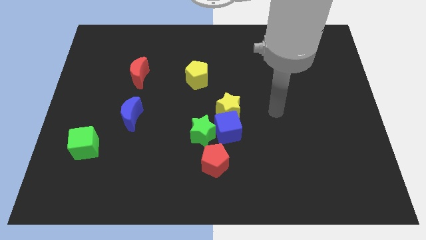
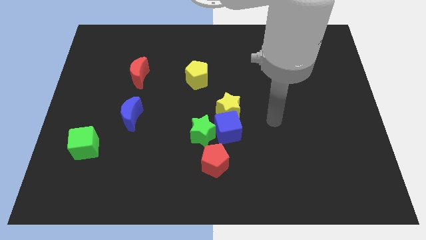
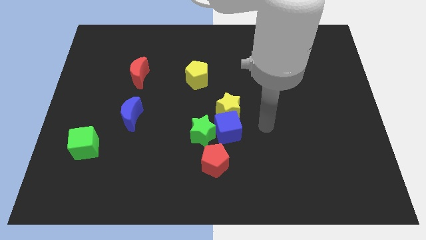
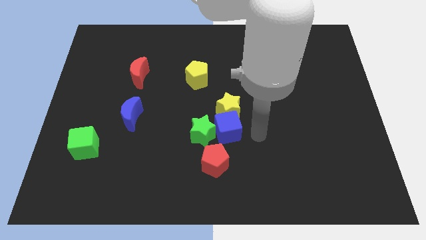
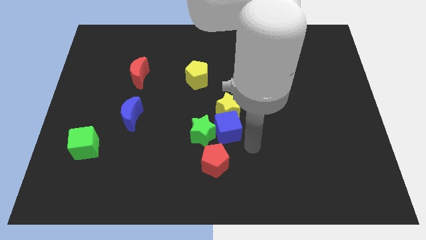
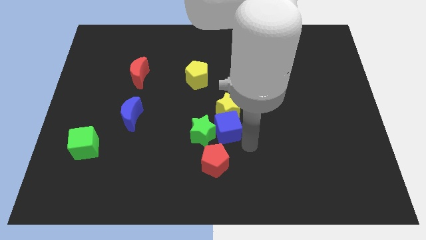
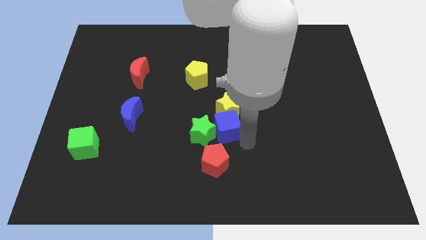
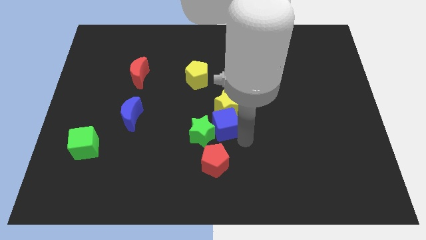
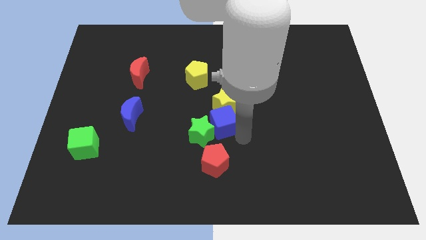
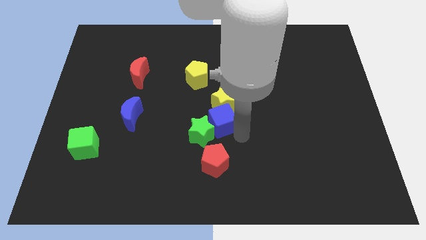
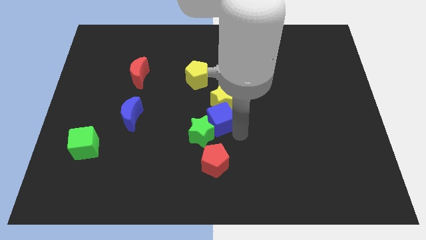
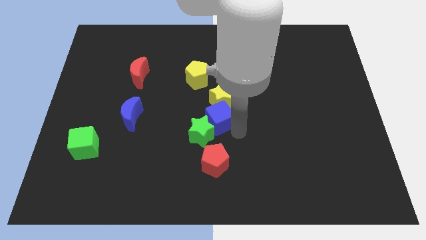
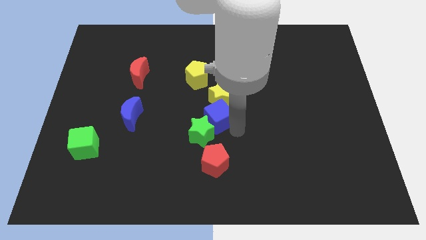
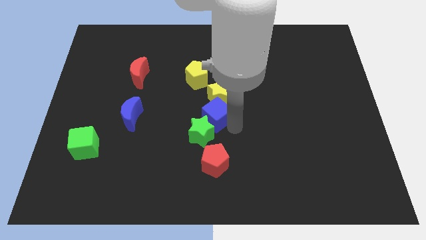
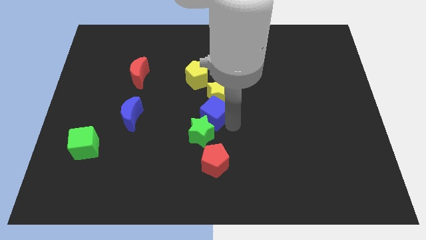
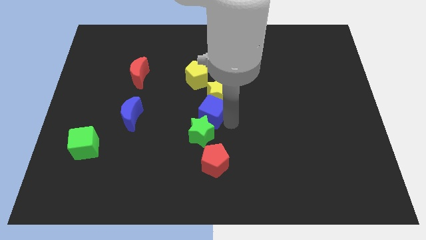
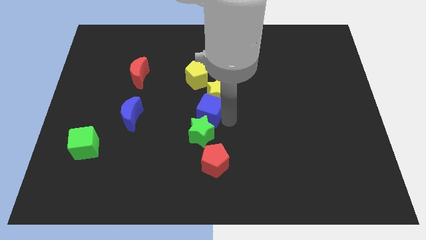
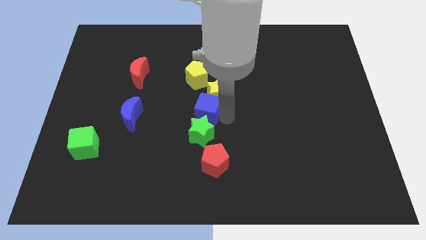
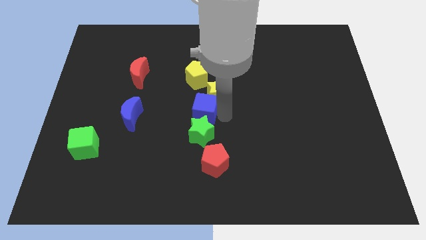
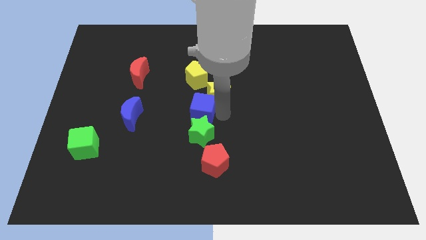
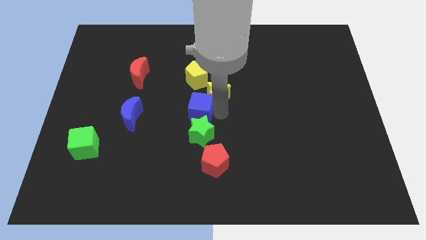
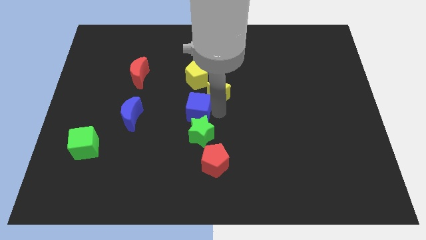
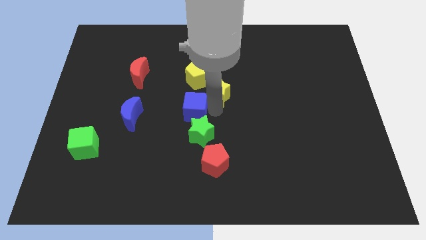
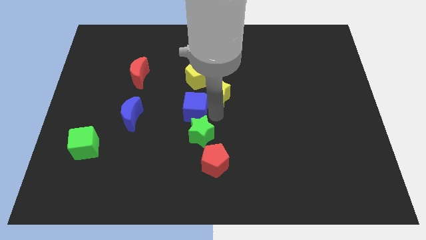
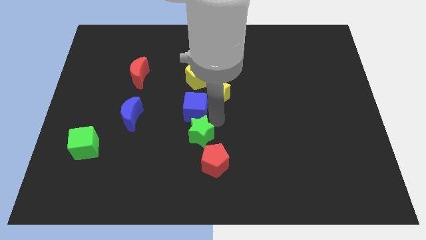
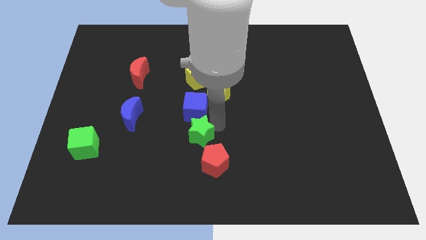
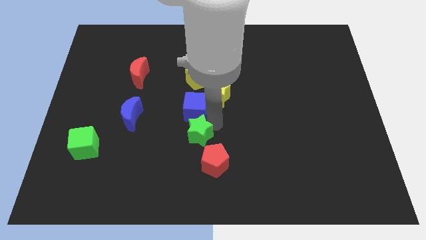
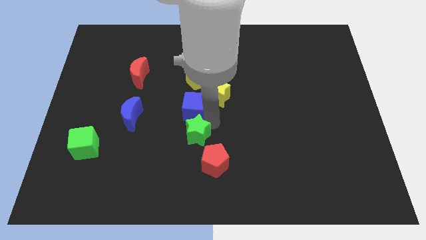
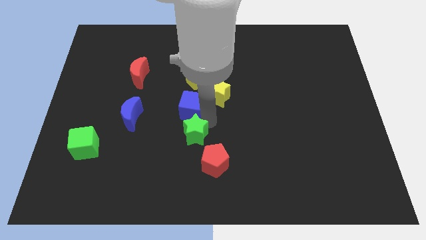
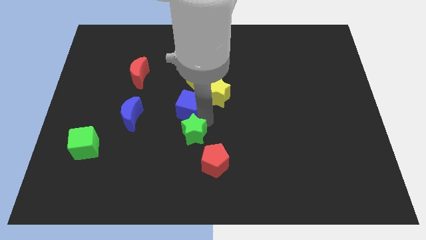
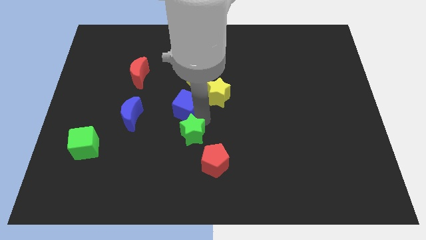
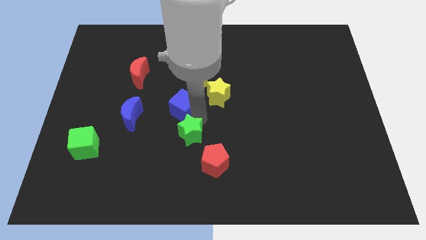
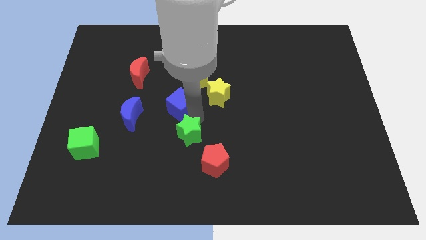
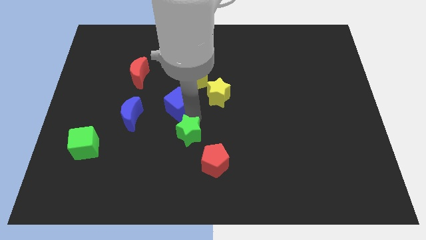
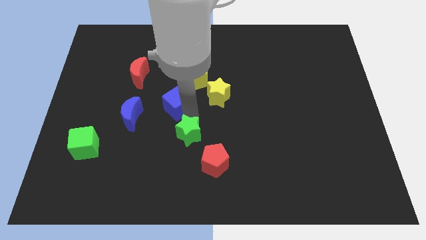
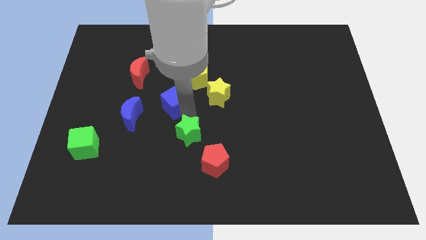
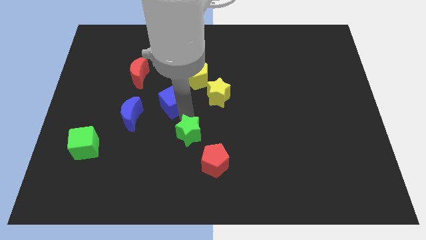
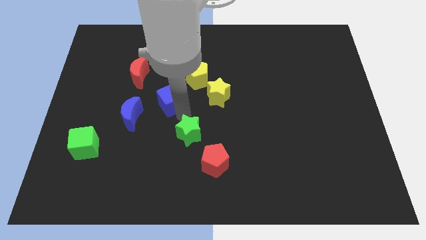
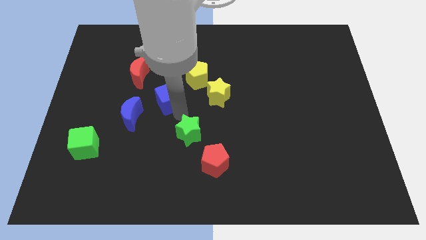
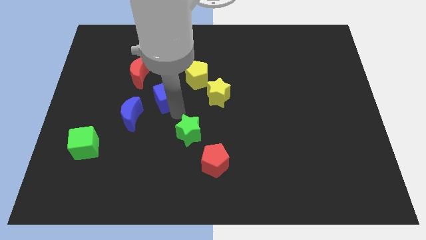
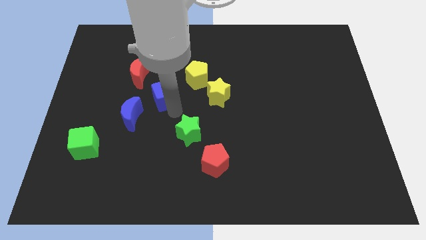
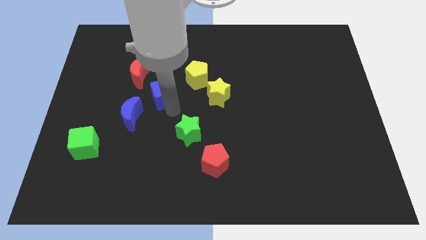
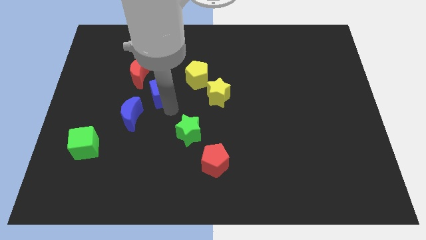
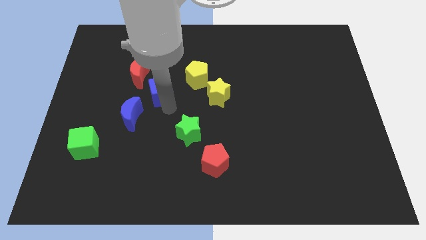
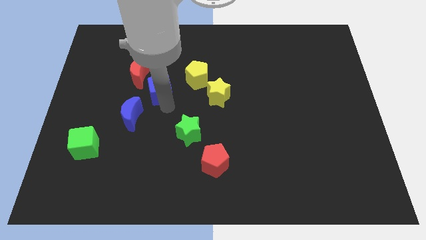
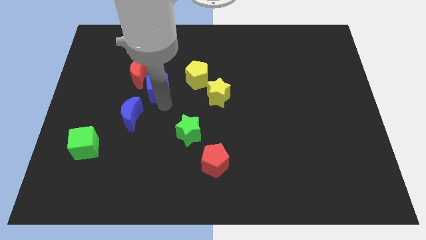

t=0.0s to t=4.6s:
push the blue cube up and left

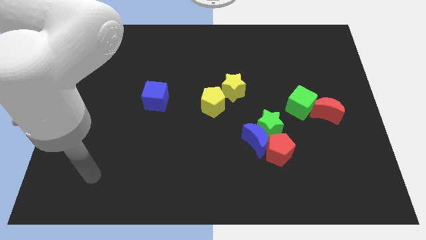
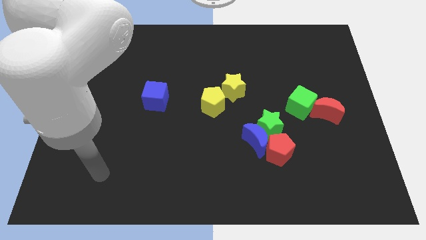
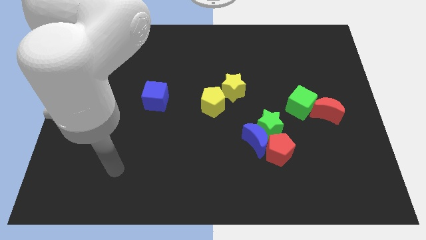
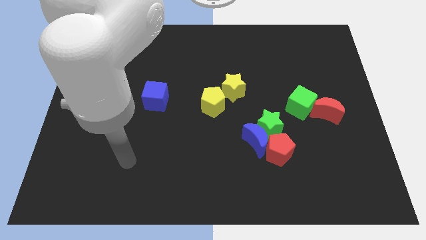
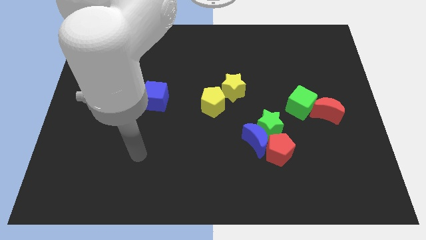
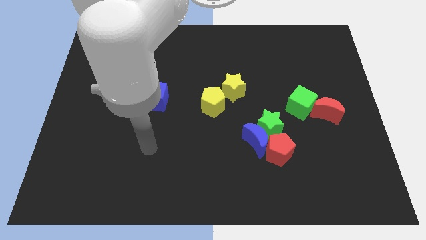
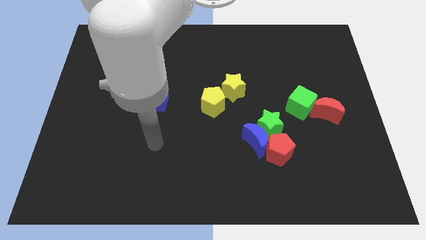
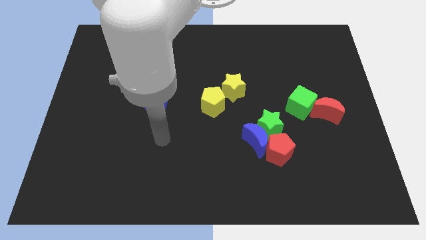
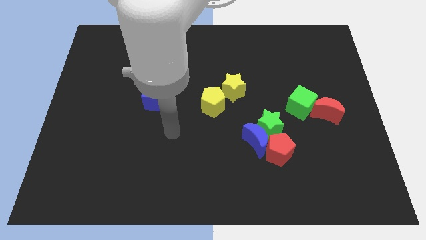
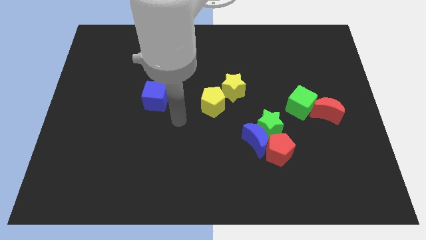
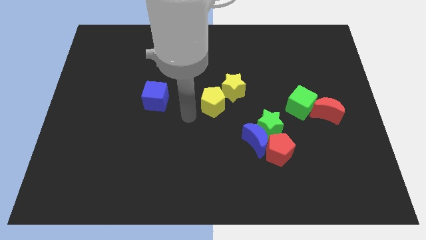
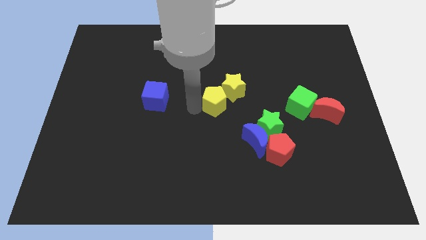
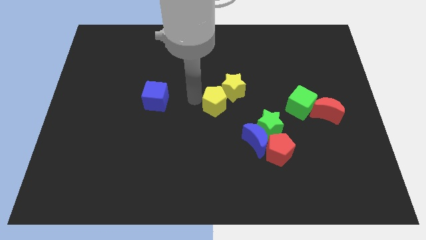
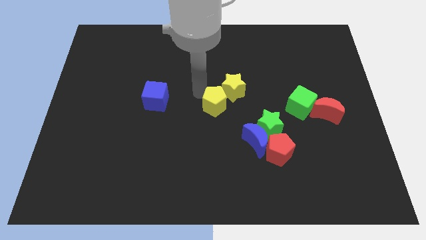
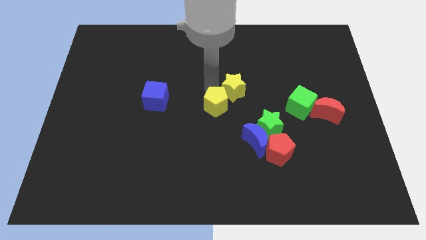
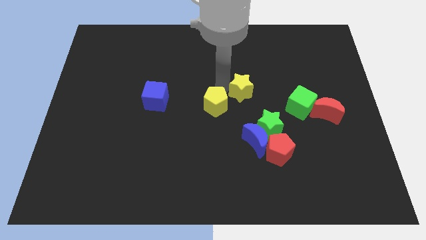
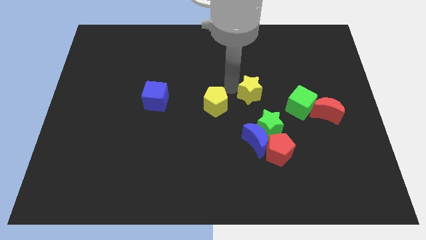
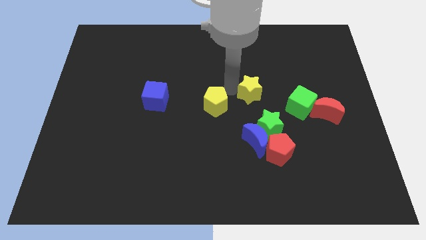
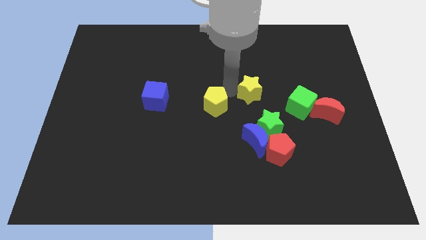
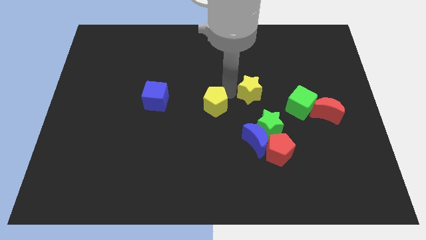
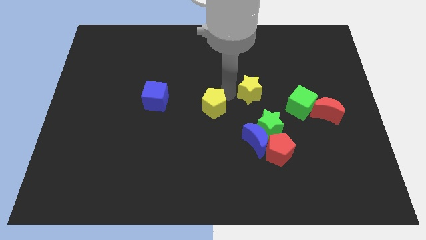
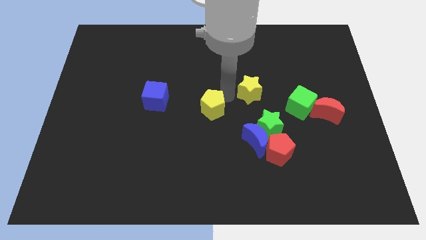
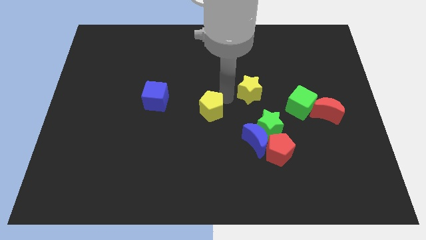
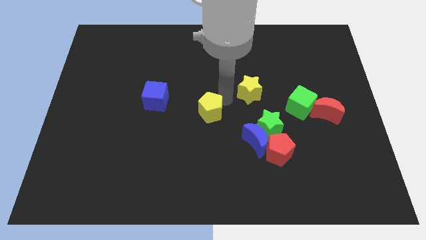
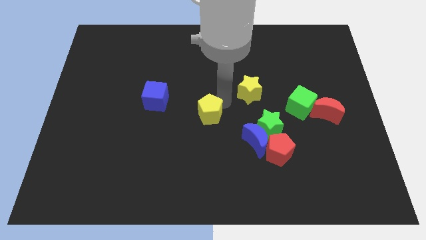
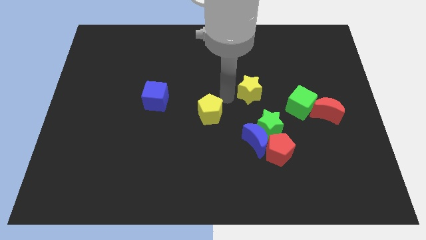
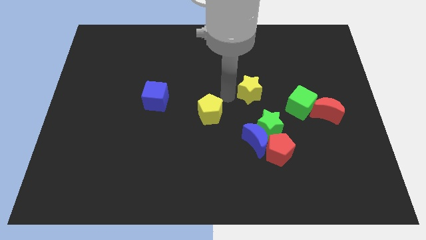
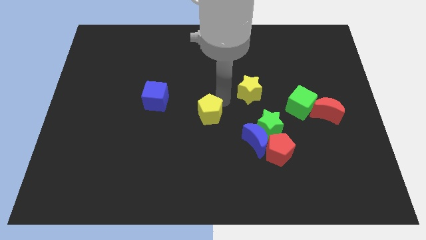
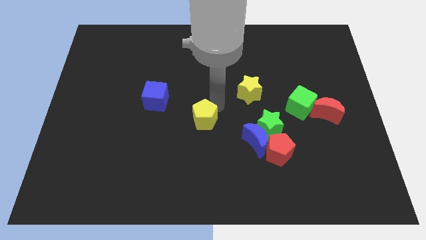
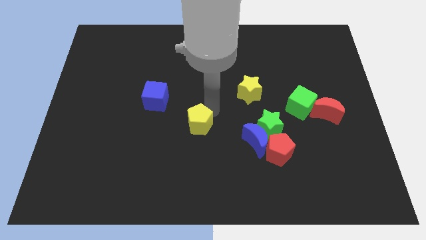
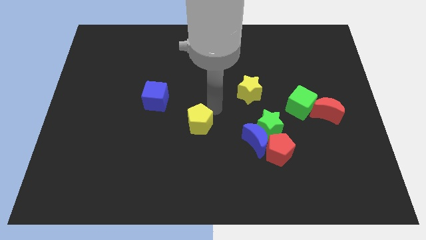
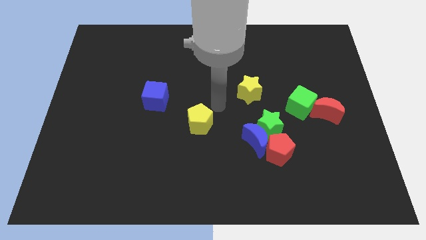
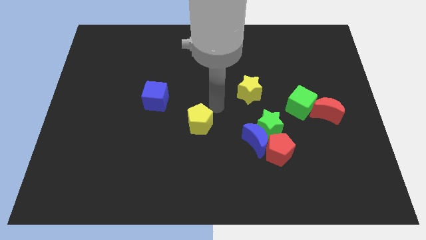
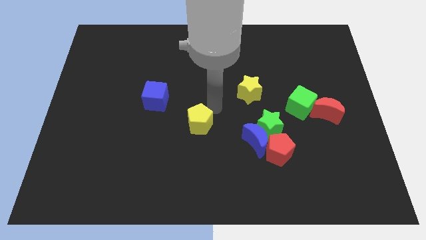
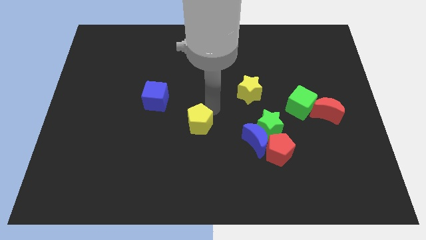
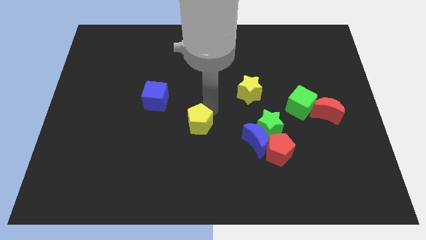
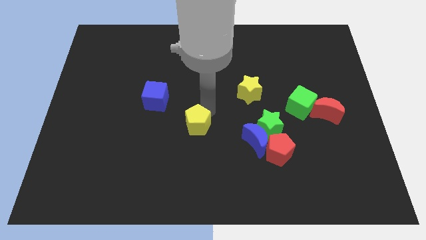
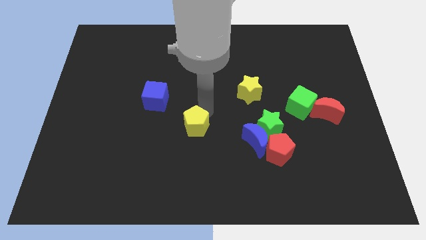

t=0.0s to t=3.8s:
push the yellow pentagon slightly downwards and left diagonally
